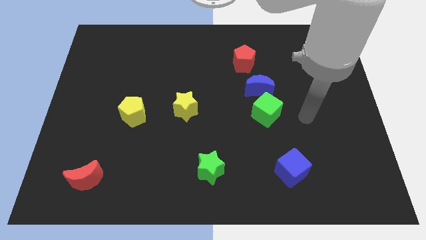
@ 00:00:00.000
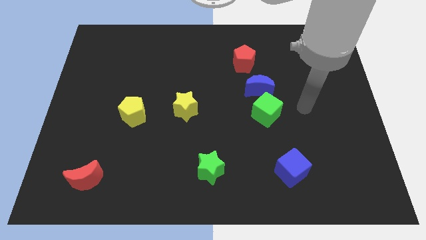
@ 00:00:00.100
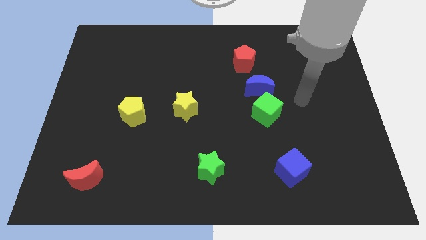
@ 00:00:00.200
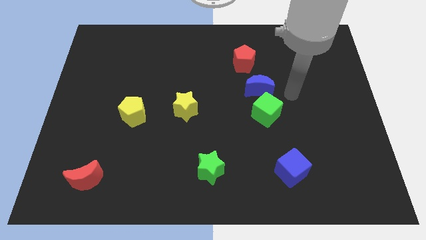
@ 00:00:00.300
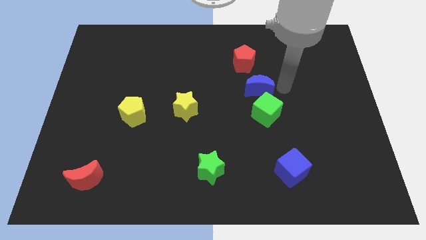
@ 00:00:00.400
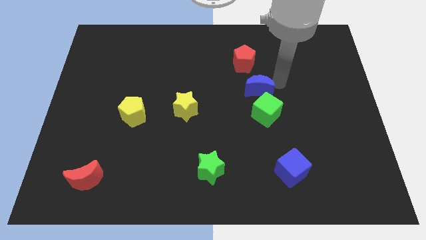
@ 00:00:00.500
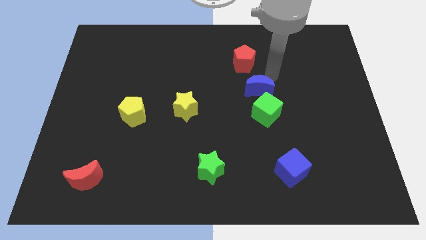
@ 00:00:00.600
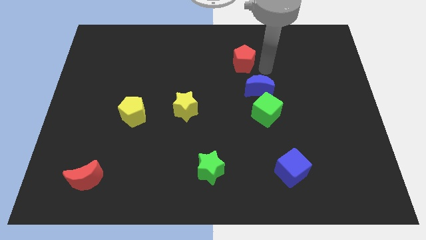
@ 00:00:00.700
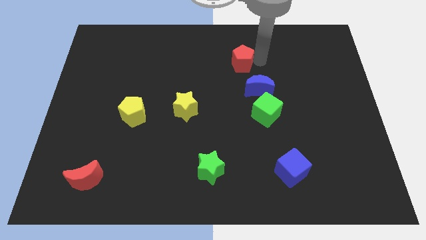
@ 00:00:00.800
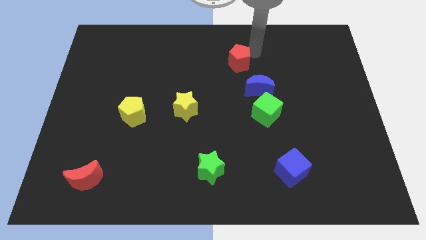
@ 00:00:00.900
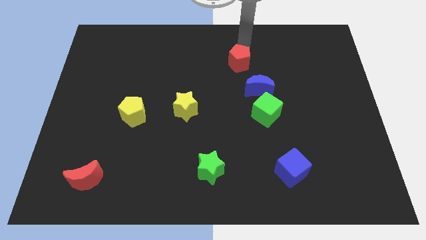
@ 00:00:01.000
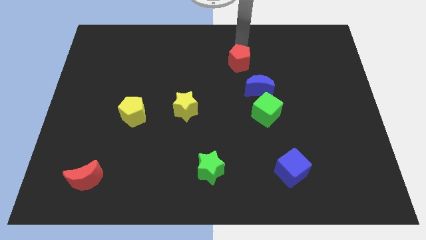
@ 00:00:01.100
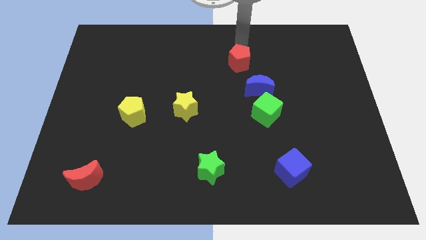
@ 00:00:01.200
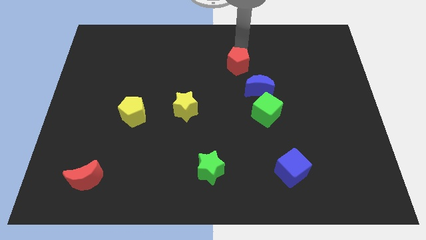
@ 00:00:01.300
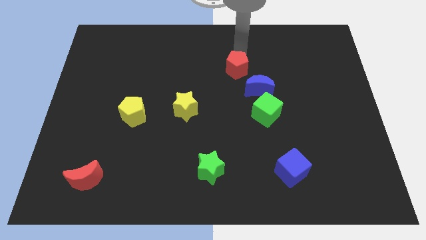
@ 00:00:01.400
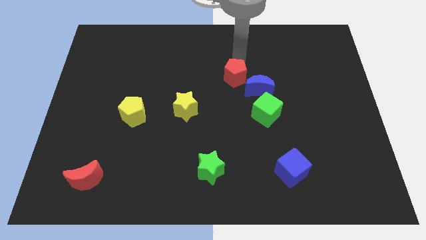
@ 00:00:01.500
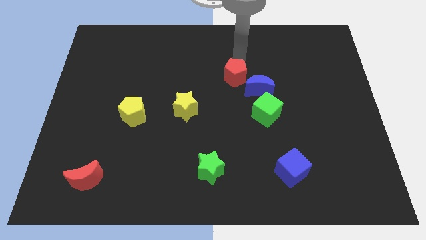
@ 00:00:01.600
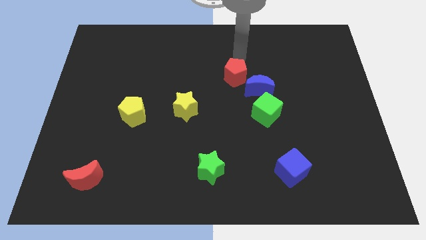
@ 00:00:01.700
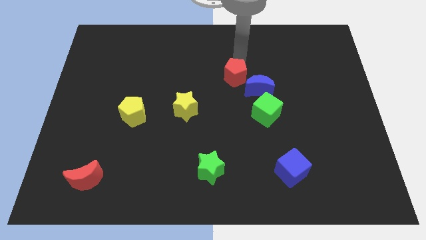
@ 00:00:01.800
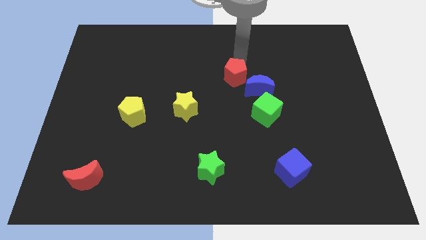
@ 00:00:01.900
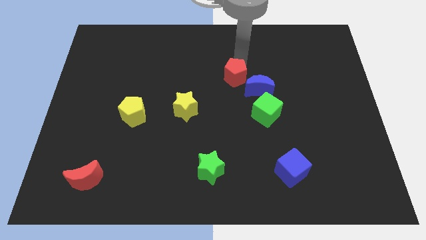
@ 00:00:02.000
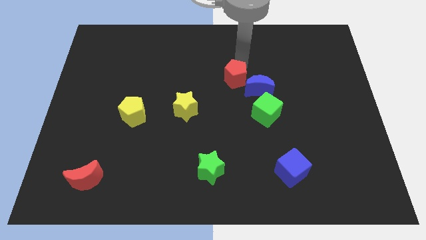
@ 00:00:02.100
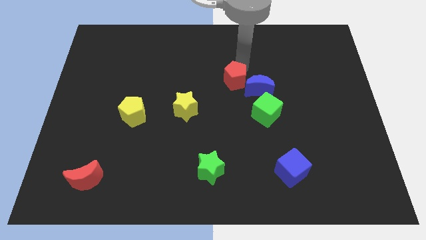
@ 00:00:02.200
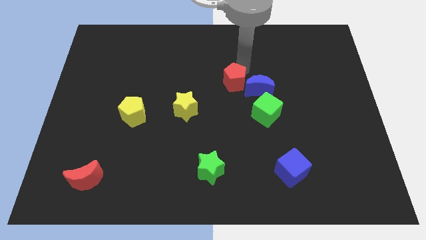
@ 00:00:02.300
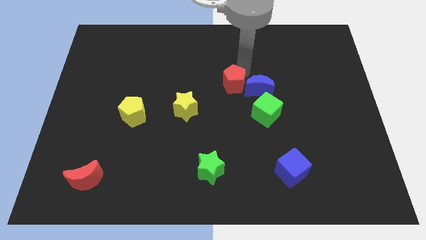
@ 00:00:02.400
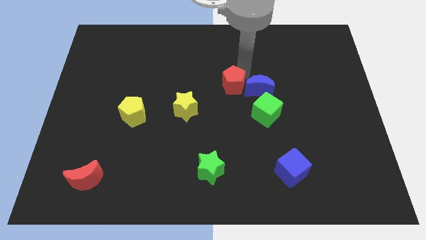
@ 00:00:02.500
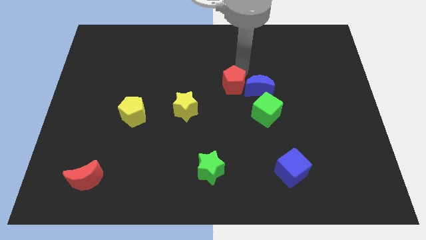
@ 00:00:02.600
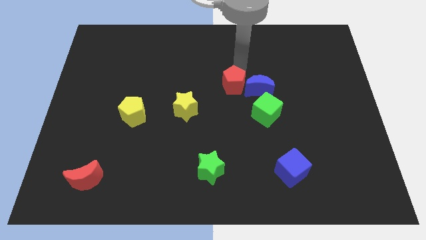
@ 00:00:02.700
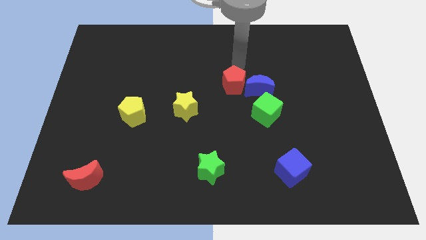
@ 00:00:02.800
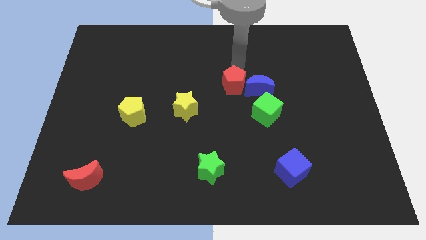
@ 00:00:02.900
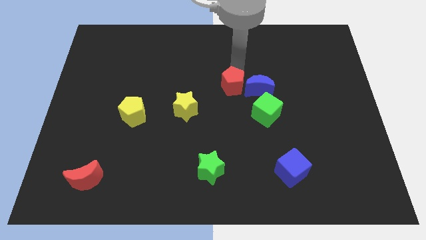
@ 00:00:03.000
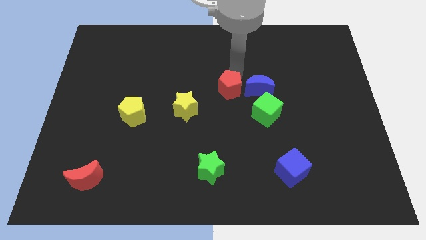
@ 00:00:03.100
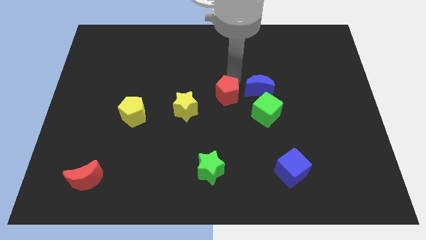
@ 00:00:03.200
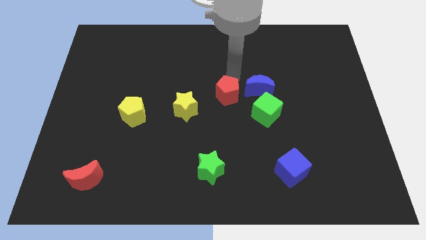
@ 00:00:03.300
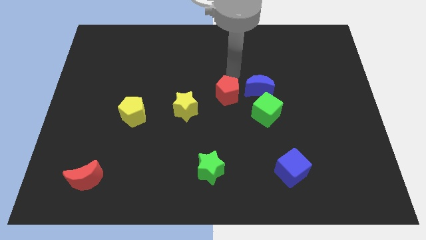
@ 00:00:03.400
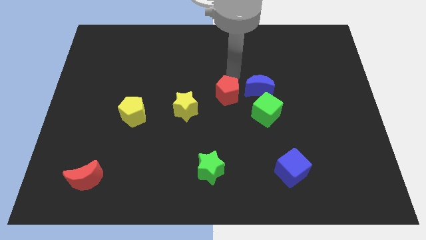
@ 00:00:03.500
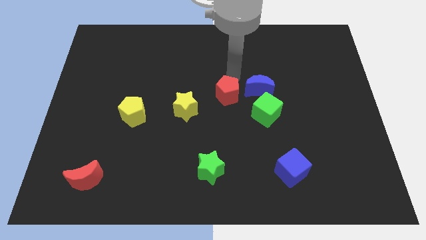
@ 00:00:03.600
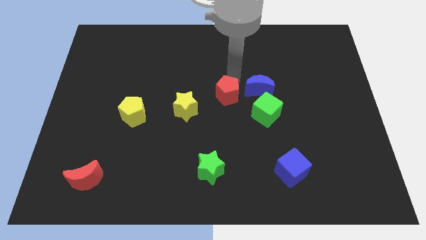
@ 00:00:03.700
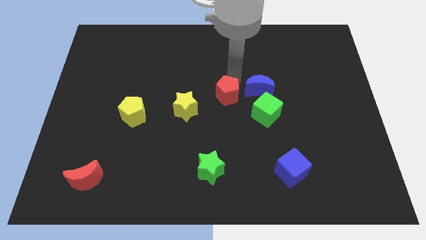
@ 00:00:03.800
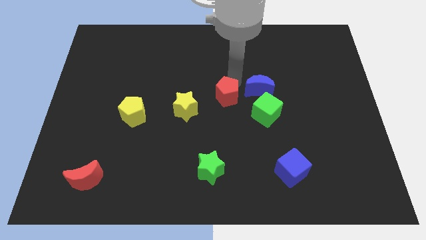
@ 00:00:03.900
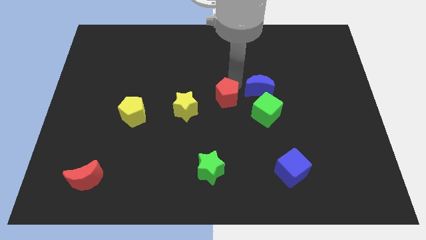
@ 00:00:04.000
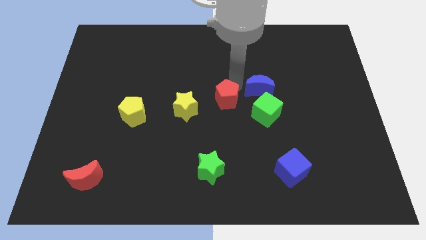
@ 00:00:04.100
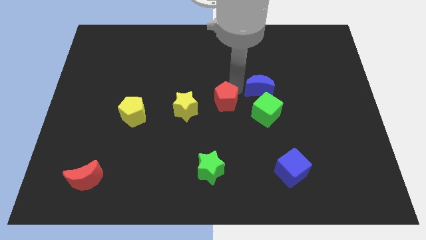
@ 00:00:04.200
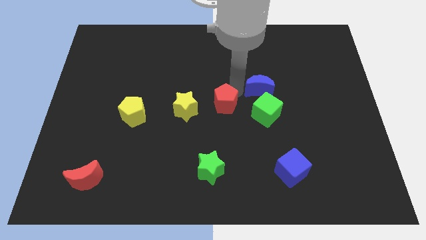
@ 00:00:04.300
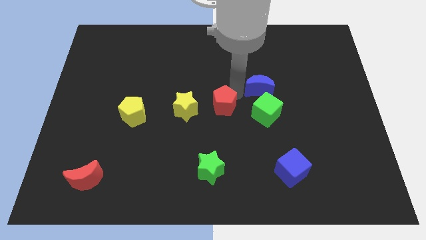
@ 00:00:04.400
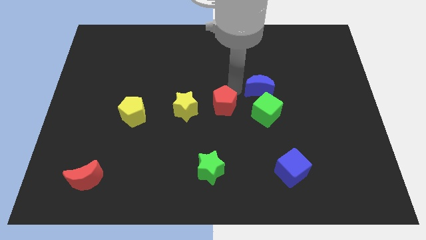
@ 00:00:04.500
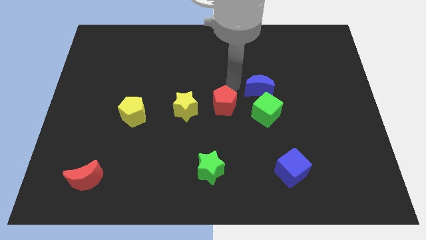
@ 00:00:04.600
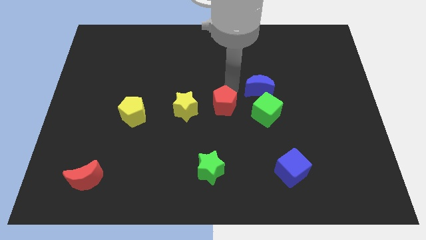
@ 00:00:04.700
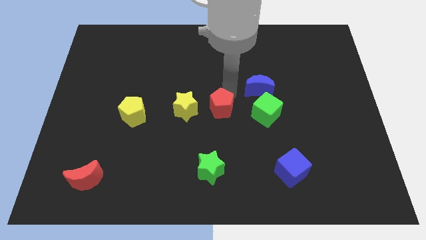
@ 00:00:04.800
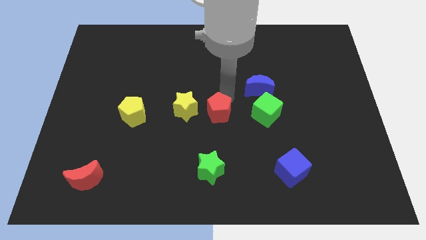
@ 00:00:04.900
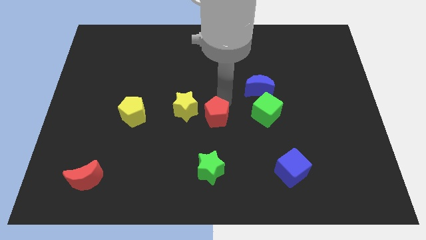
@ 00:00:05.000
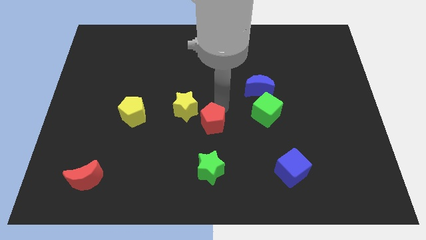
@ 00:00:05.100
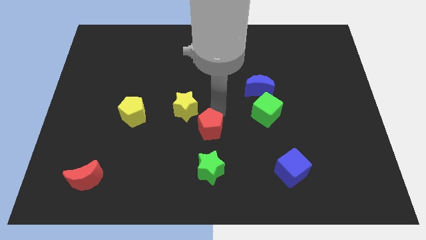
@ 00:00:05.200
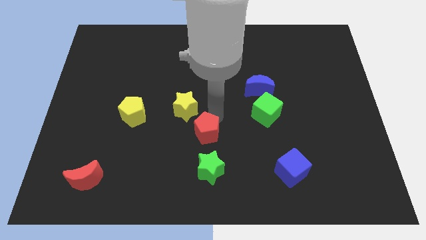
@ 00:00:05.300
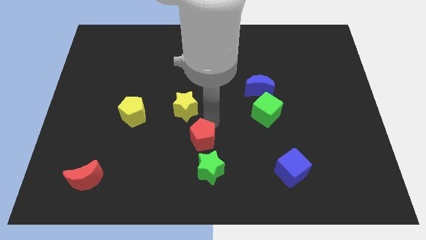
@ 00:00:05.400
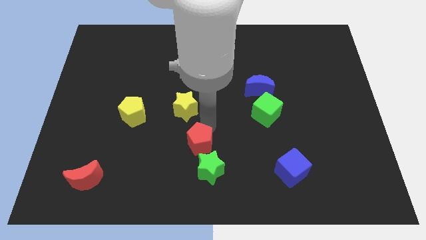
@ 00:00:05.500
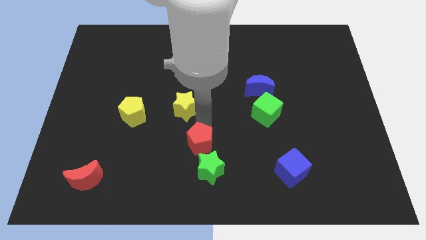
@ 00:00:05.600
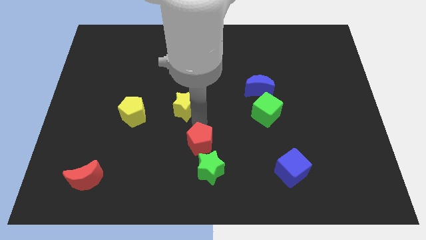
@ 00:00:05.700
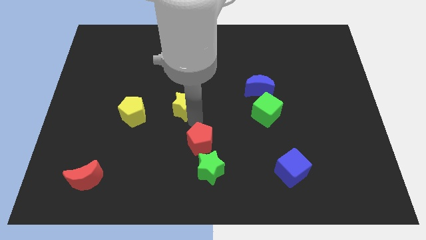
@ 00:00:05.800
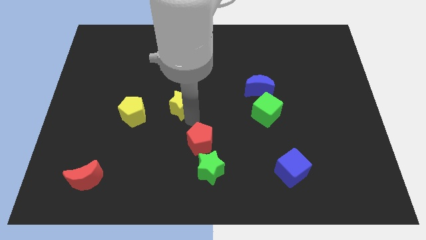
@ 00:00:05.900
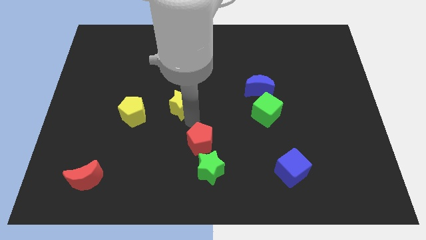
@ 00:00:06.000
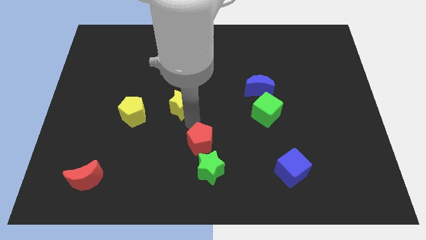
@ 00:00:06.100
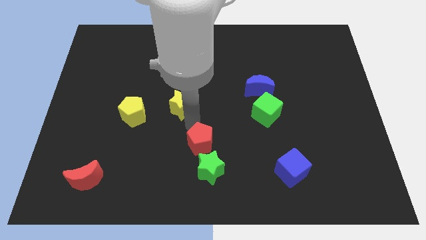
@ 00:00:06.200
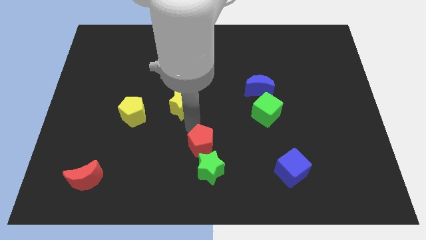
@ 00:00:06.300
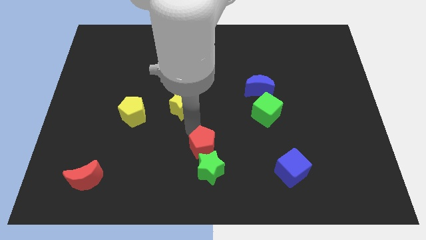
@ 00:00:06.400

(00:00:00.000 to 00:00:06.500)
slide the red pentagon to the green star

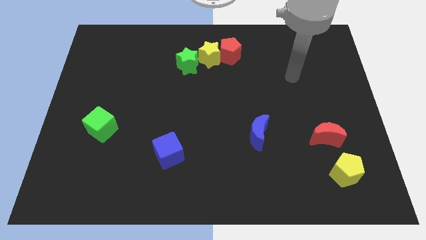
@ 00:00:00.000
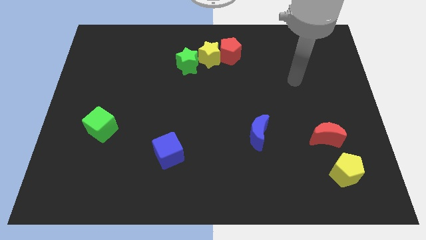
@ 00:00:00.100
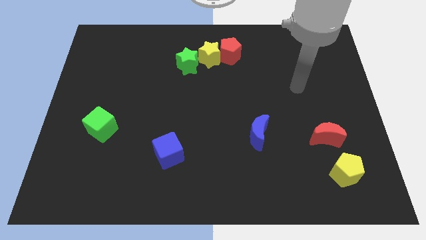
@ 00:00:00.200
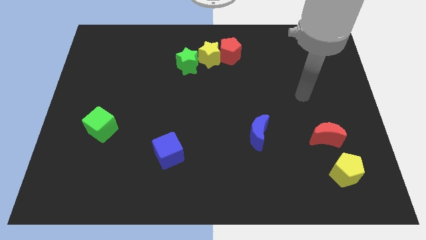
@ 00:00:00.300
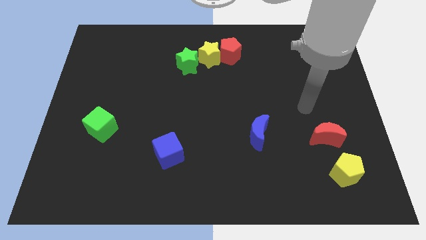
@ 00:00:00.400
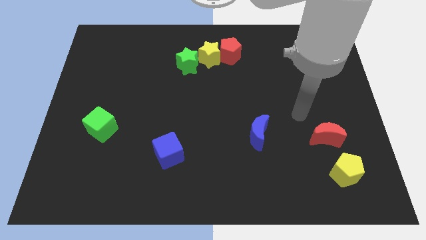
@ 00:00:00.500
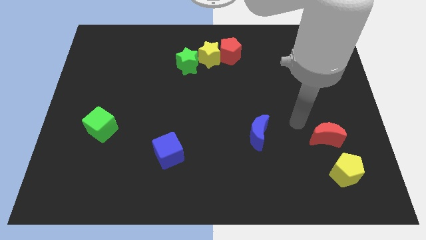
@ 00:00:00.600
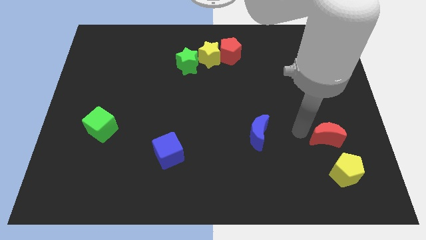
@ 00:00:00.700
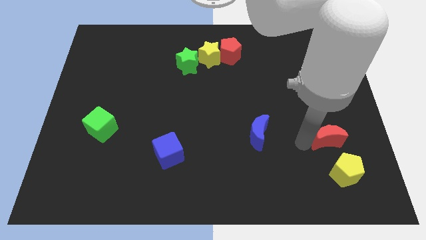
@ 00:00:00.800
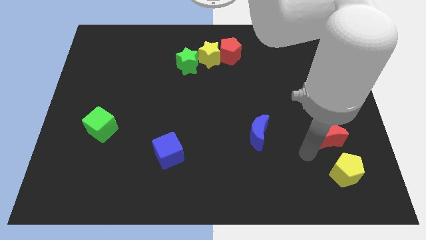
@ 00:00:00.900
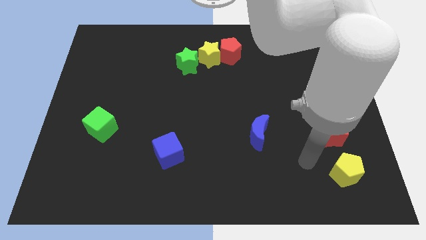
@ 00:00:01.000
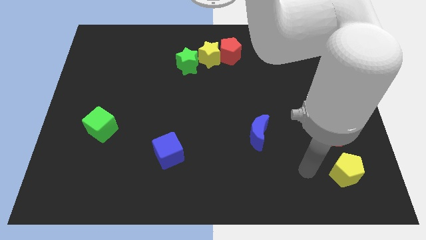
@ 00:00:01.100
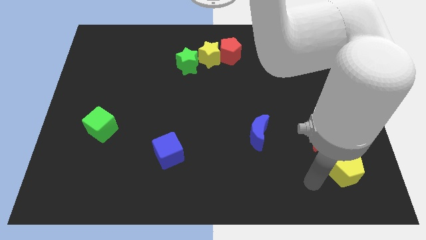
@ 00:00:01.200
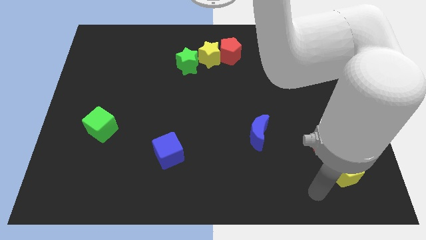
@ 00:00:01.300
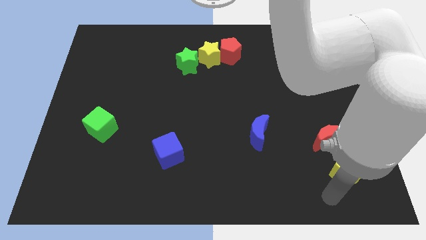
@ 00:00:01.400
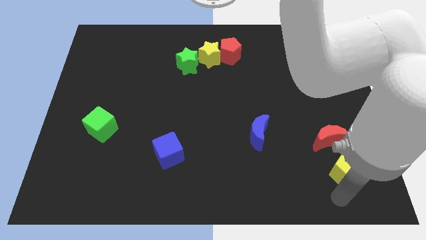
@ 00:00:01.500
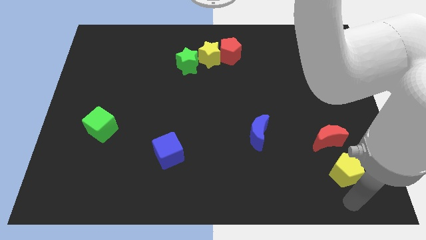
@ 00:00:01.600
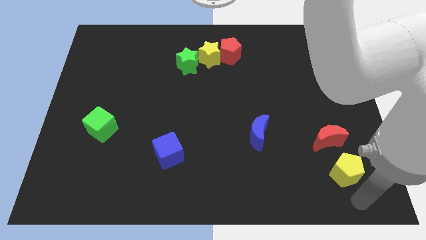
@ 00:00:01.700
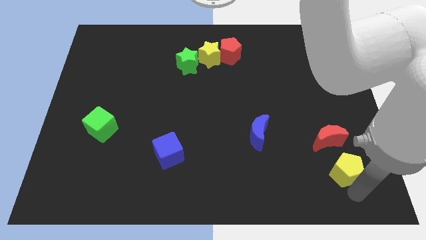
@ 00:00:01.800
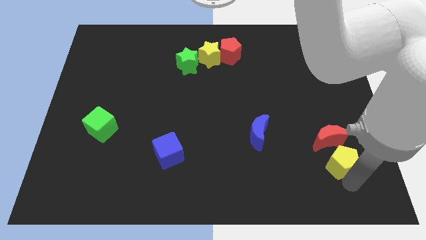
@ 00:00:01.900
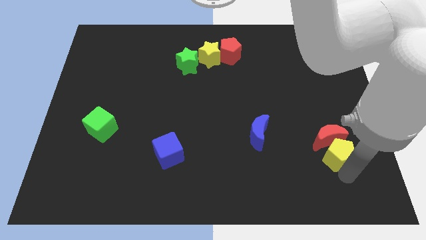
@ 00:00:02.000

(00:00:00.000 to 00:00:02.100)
slide the yellow pentagon to the red moon
